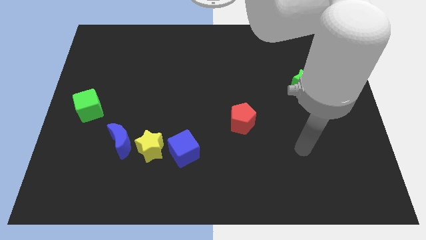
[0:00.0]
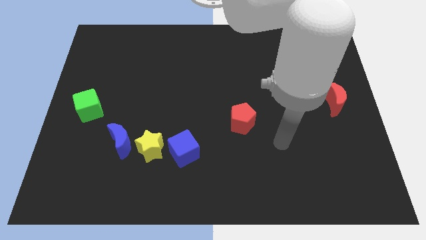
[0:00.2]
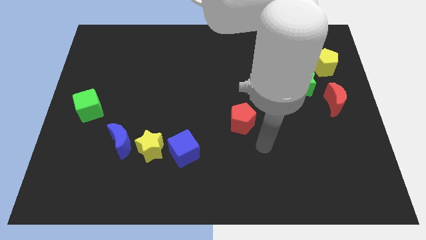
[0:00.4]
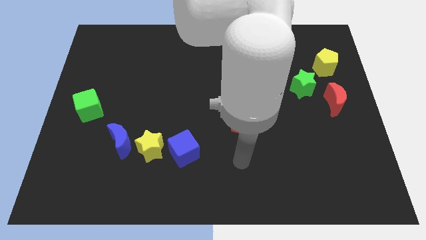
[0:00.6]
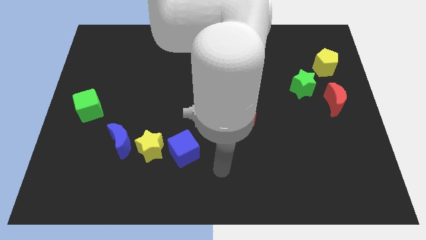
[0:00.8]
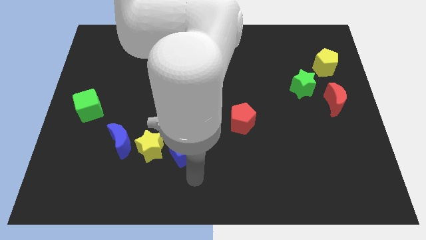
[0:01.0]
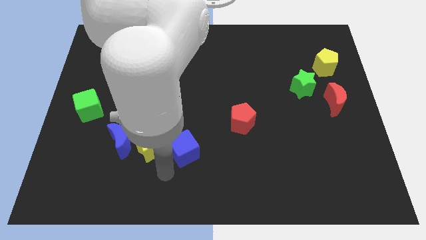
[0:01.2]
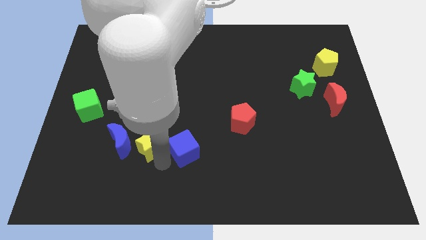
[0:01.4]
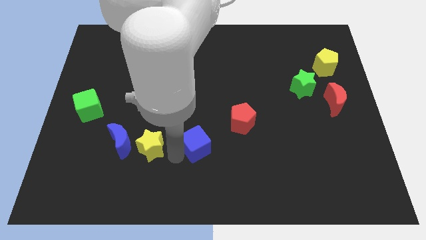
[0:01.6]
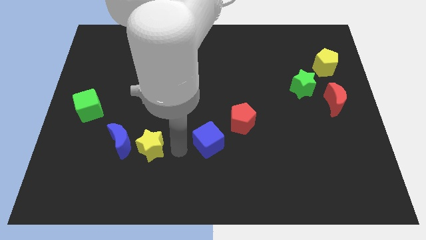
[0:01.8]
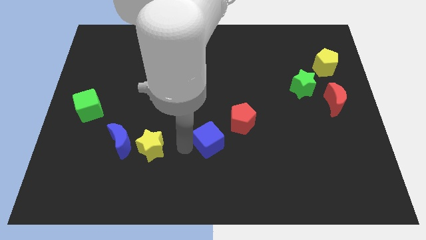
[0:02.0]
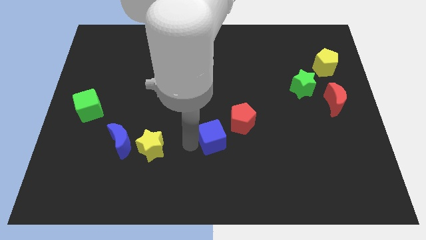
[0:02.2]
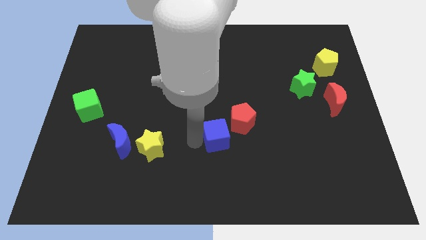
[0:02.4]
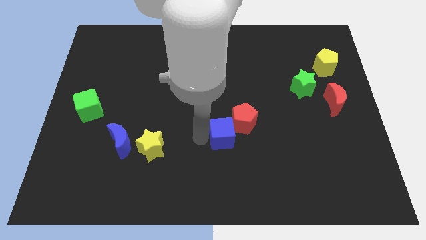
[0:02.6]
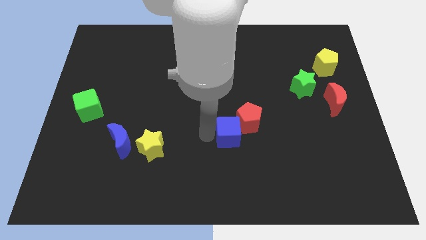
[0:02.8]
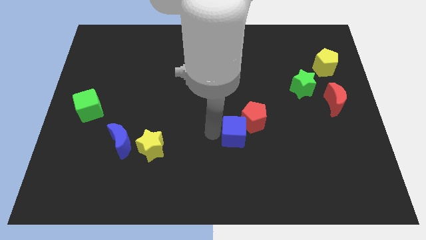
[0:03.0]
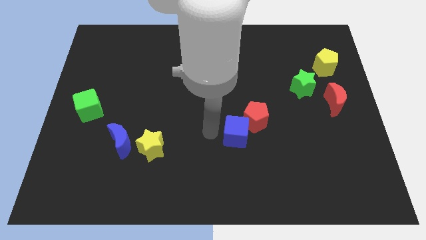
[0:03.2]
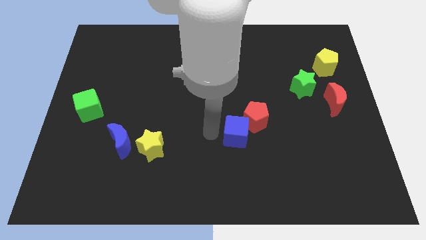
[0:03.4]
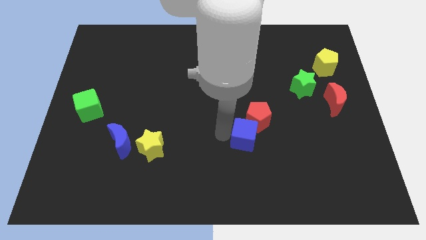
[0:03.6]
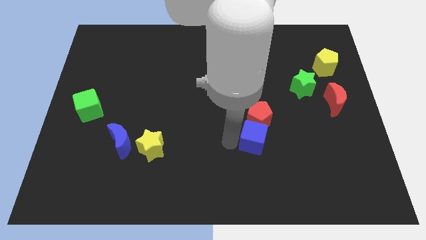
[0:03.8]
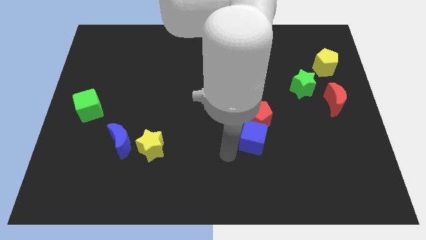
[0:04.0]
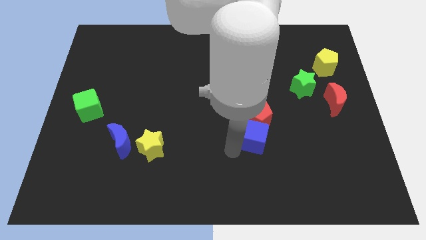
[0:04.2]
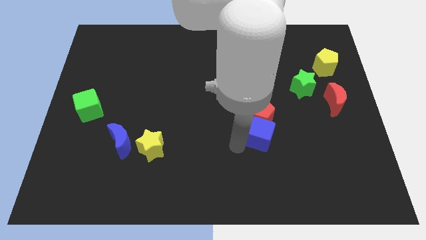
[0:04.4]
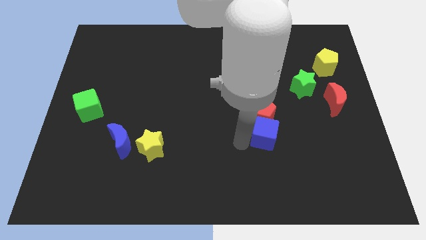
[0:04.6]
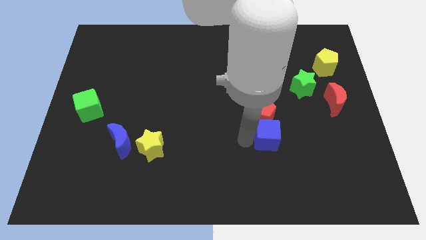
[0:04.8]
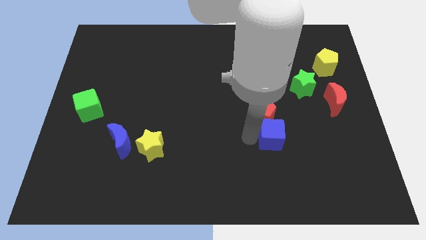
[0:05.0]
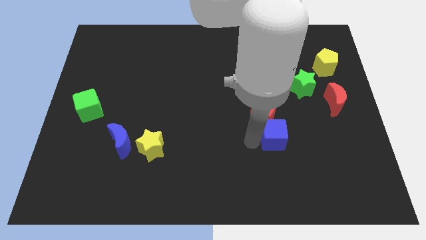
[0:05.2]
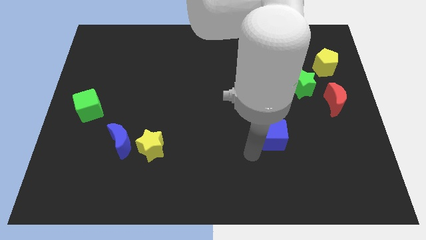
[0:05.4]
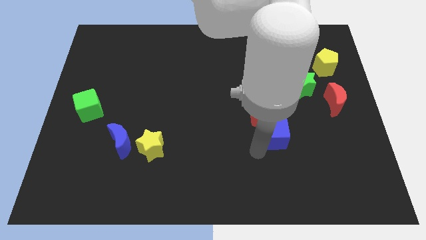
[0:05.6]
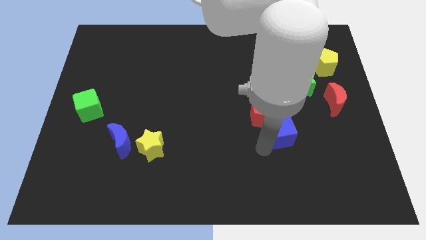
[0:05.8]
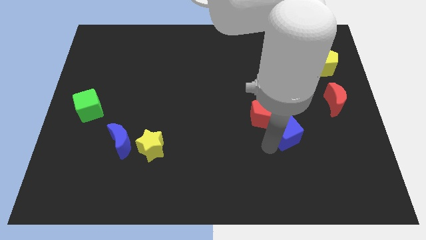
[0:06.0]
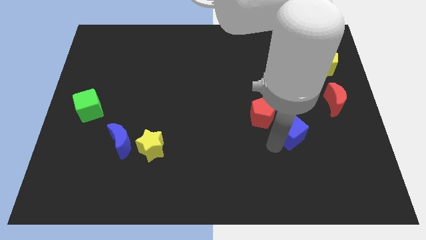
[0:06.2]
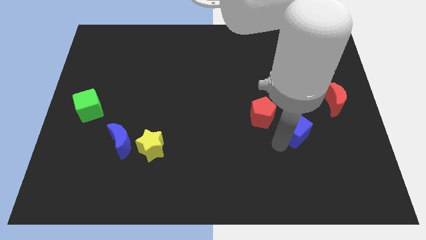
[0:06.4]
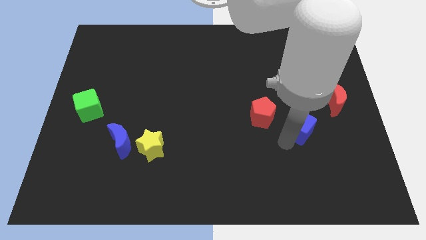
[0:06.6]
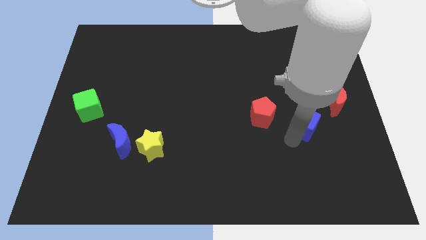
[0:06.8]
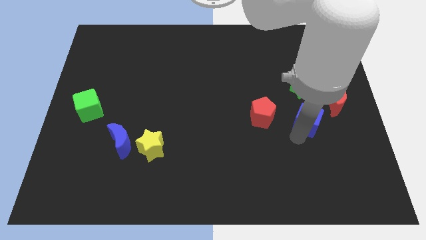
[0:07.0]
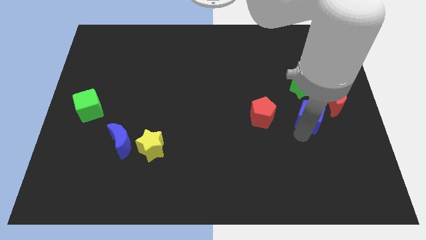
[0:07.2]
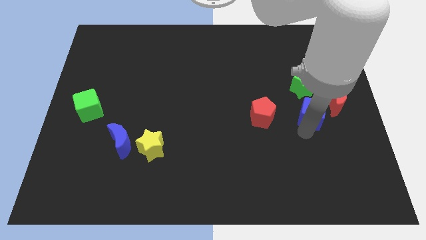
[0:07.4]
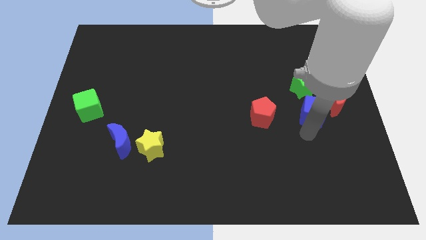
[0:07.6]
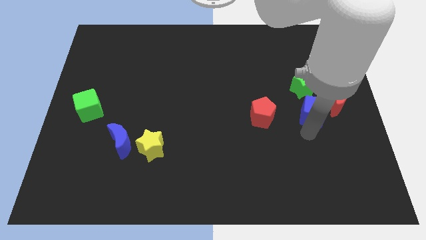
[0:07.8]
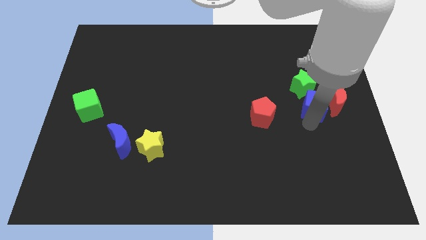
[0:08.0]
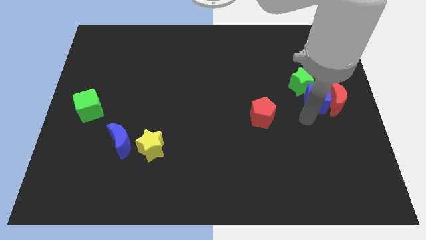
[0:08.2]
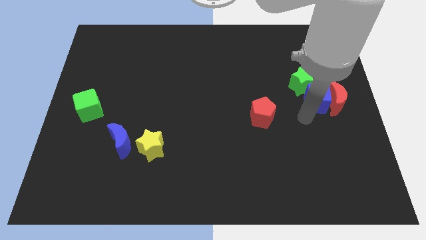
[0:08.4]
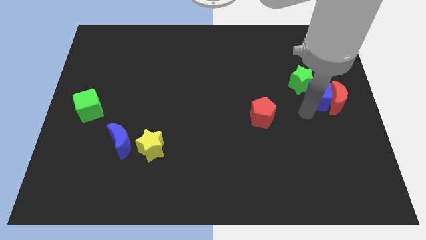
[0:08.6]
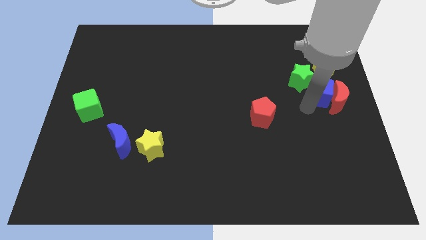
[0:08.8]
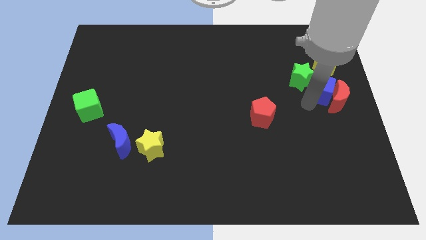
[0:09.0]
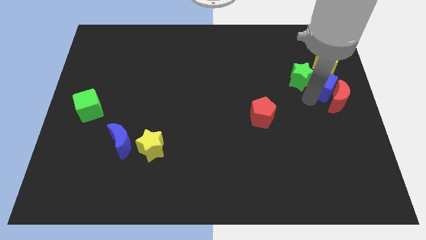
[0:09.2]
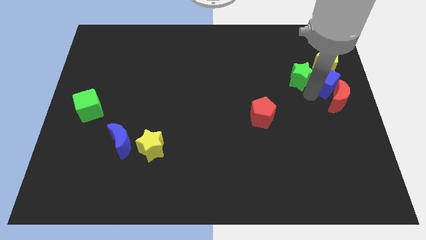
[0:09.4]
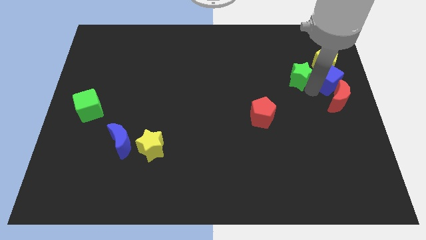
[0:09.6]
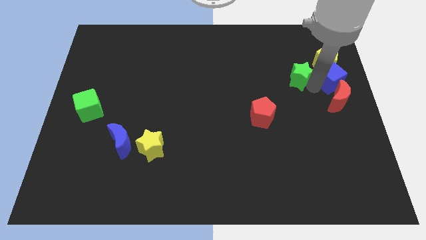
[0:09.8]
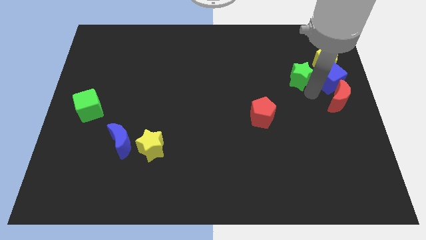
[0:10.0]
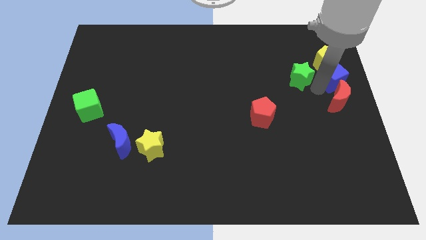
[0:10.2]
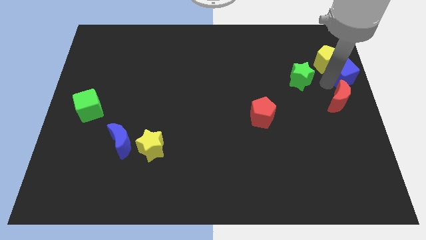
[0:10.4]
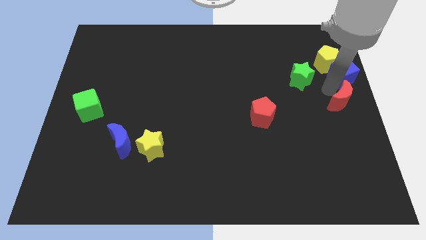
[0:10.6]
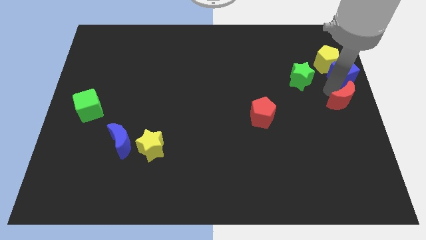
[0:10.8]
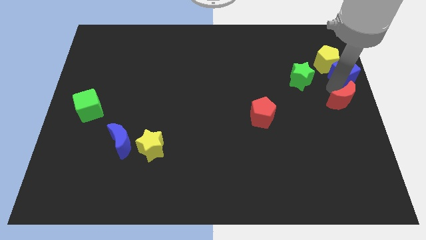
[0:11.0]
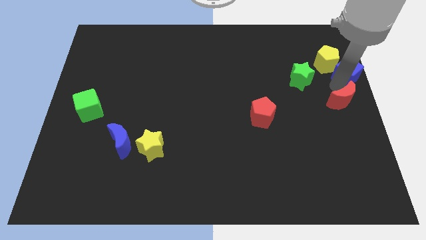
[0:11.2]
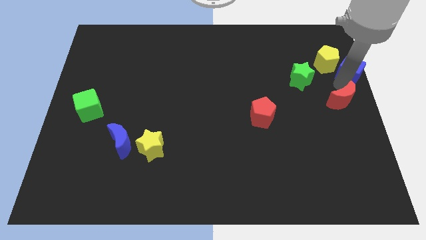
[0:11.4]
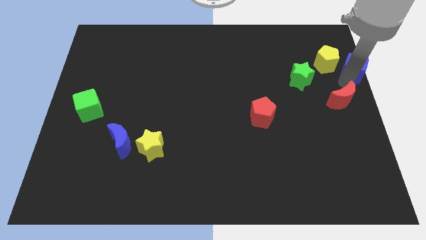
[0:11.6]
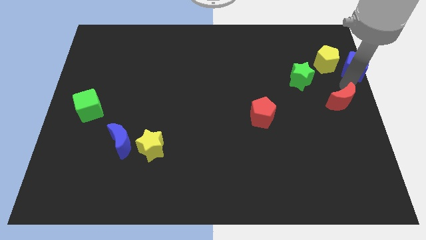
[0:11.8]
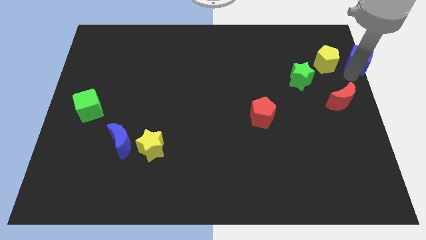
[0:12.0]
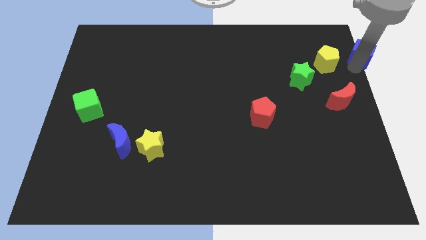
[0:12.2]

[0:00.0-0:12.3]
put the blue cube to the top right corner

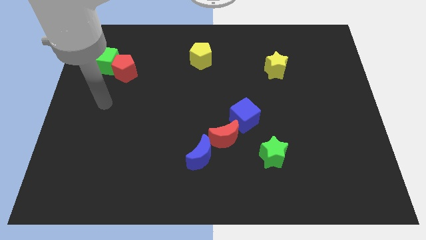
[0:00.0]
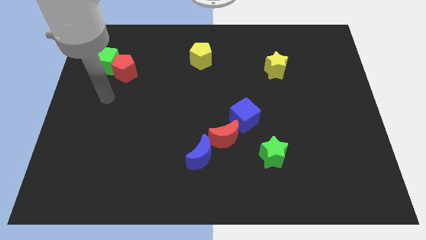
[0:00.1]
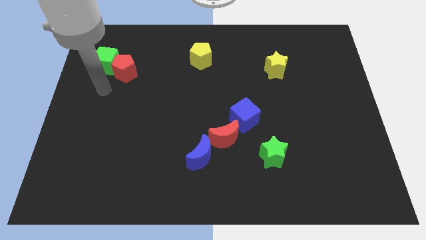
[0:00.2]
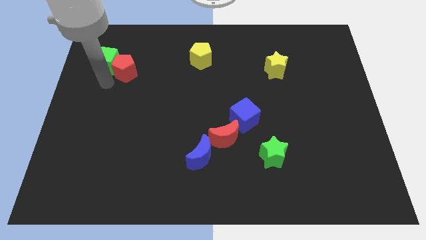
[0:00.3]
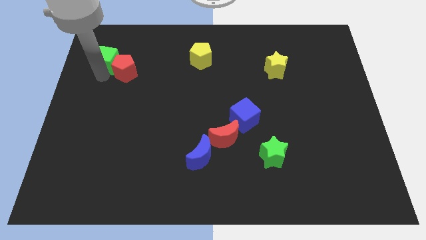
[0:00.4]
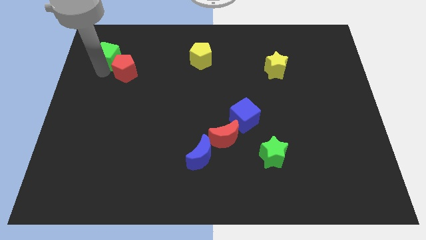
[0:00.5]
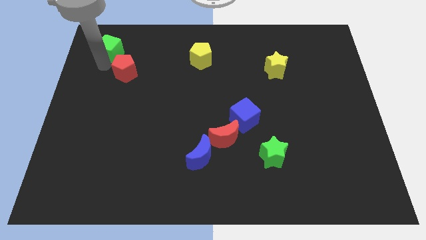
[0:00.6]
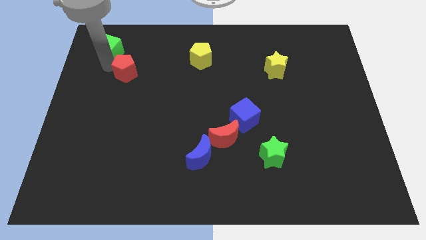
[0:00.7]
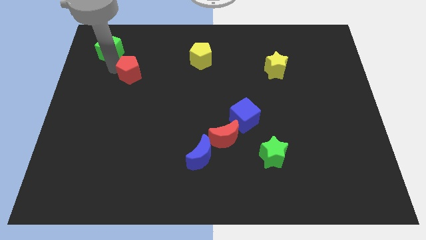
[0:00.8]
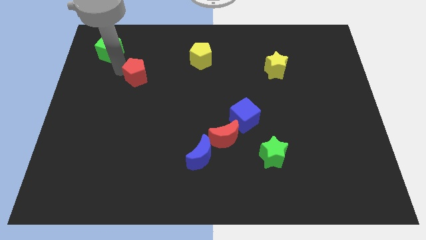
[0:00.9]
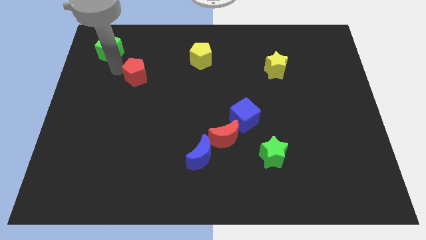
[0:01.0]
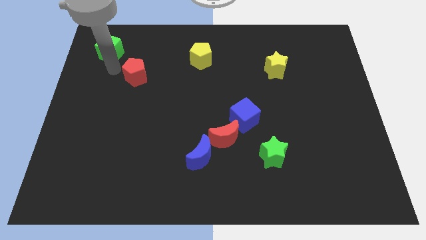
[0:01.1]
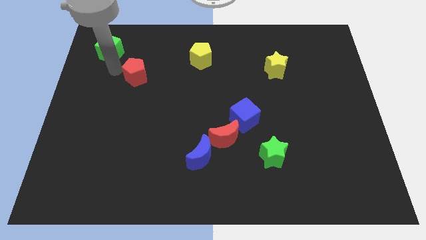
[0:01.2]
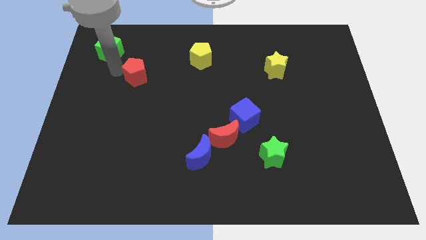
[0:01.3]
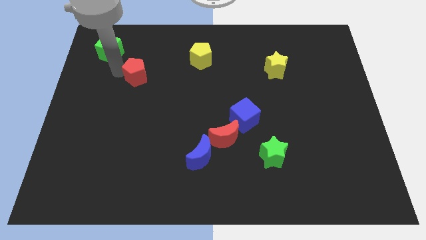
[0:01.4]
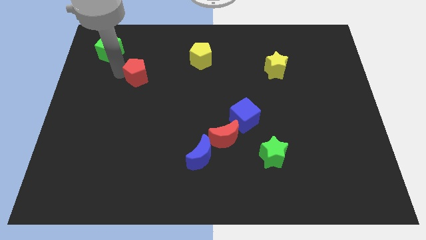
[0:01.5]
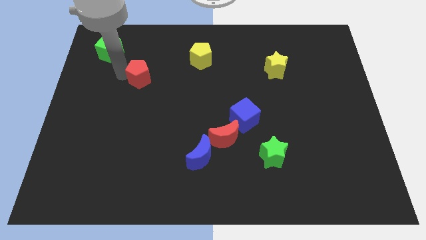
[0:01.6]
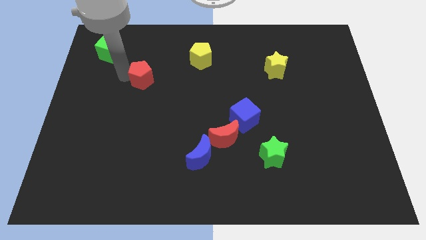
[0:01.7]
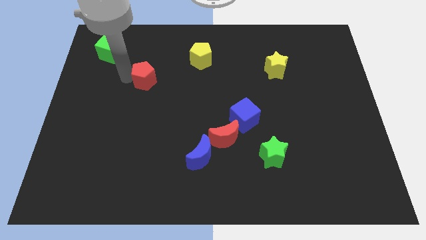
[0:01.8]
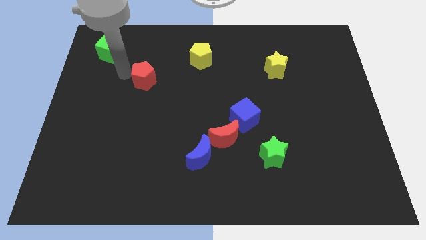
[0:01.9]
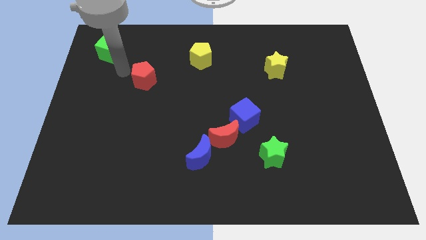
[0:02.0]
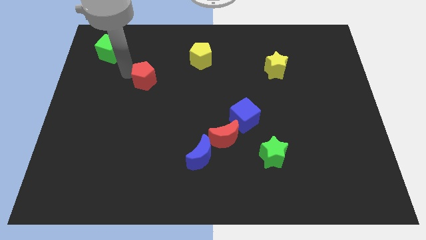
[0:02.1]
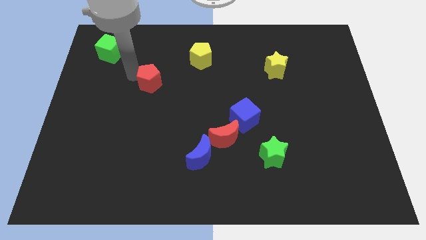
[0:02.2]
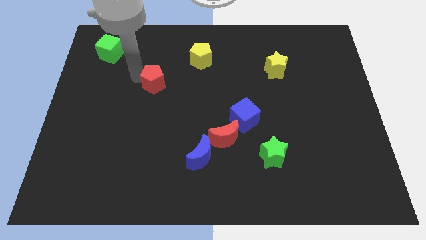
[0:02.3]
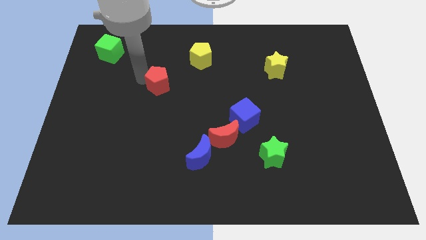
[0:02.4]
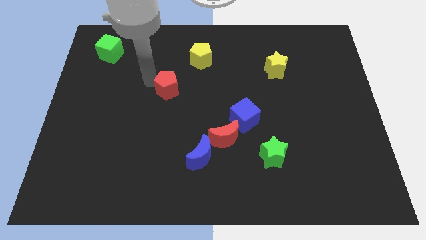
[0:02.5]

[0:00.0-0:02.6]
slide the red pentagon to the center
